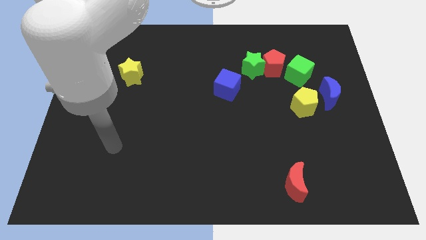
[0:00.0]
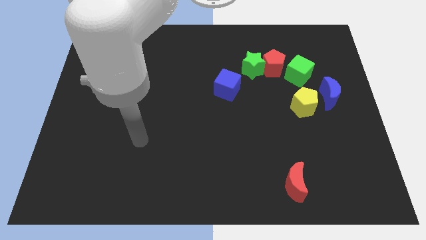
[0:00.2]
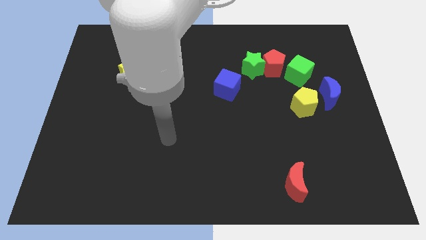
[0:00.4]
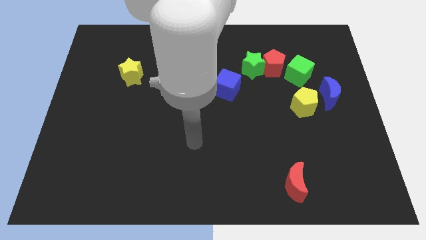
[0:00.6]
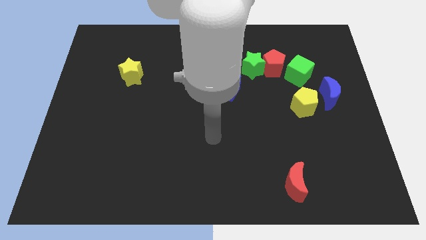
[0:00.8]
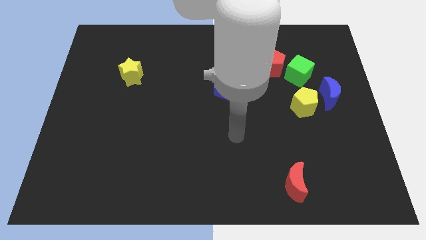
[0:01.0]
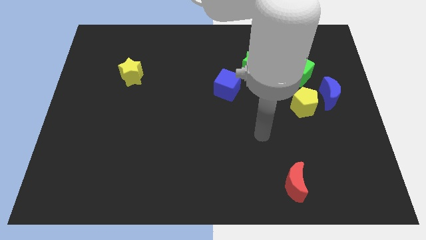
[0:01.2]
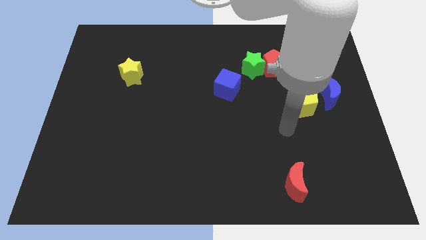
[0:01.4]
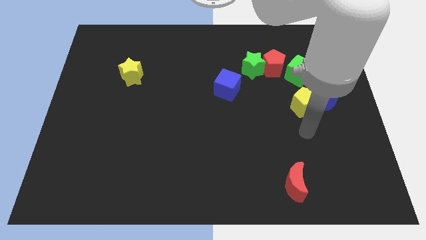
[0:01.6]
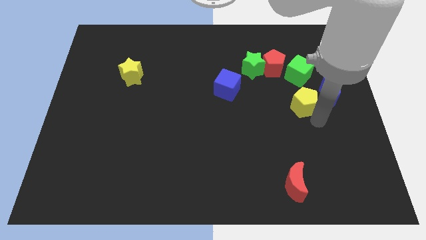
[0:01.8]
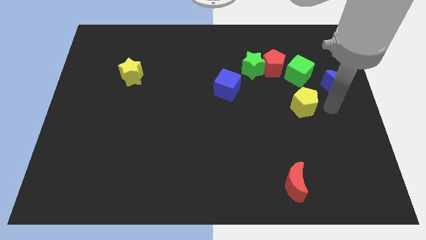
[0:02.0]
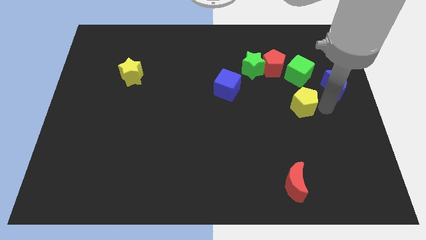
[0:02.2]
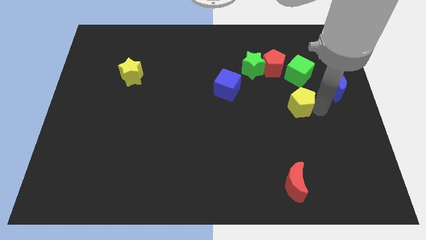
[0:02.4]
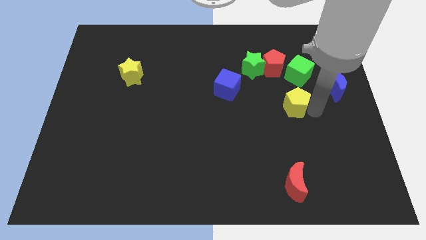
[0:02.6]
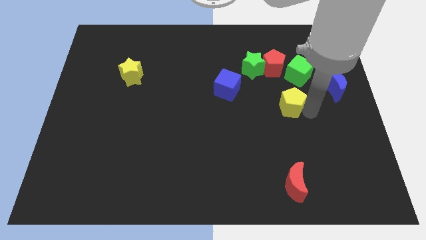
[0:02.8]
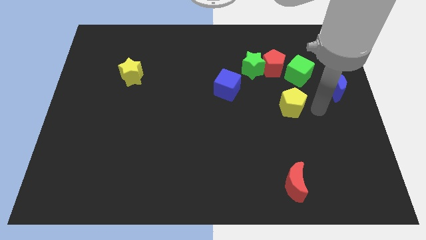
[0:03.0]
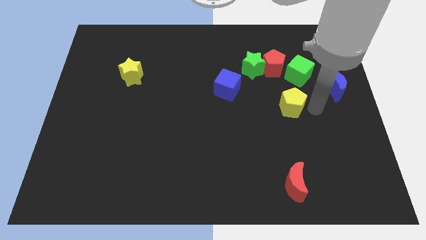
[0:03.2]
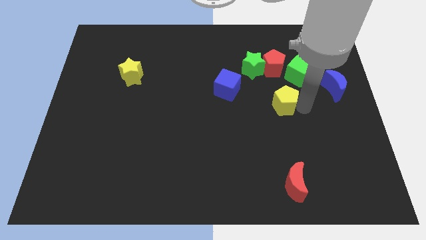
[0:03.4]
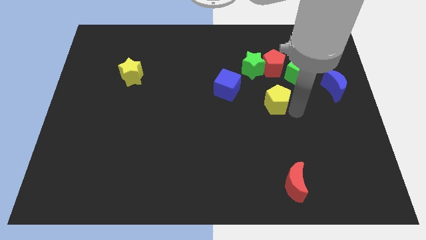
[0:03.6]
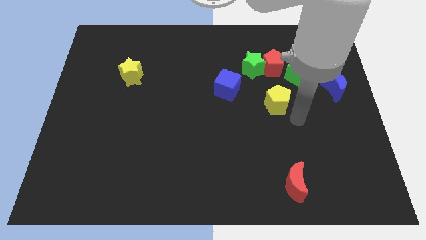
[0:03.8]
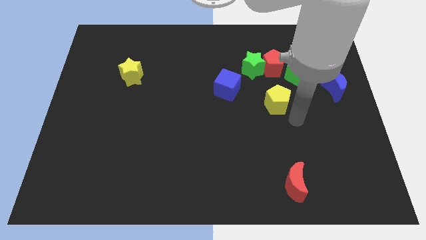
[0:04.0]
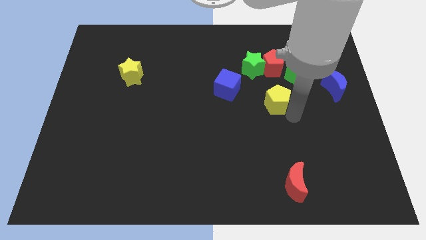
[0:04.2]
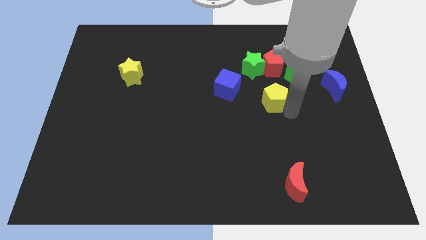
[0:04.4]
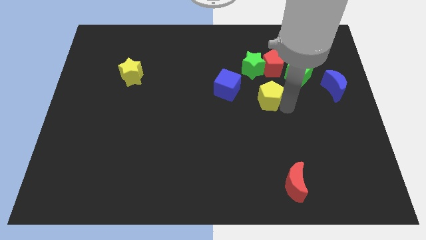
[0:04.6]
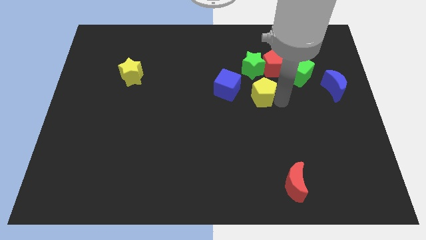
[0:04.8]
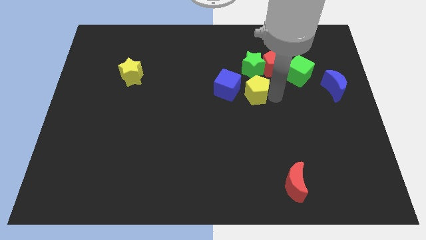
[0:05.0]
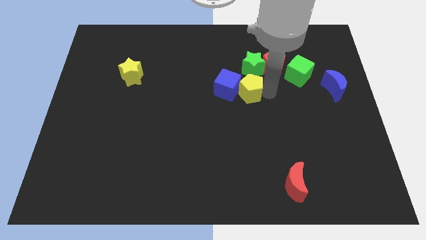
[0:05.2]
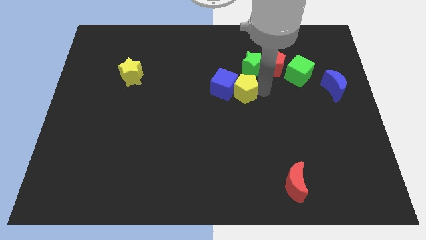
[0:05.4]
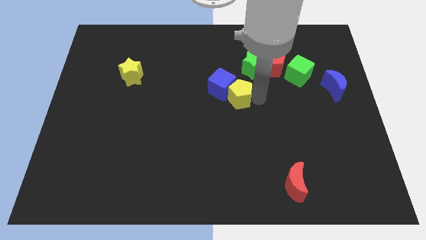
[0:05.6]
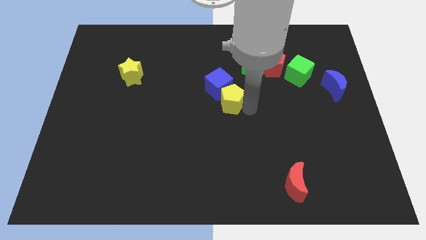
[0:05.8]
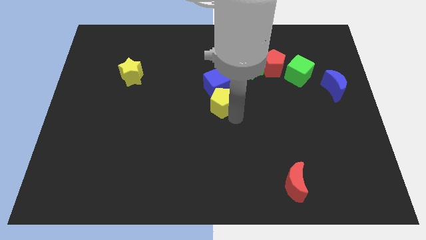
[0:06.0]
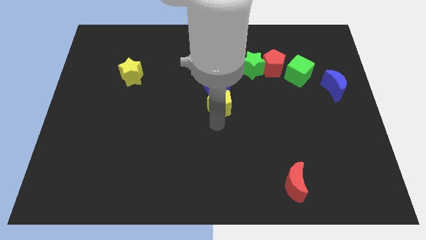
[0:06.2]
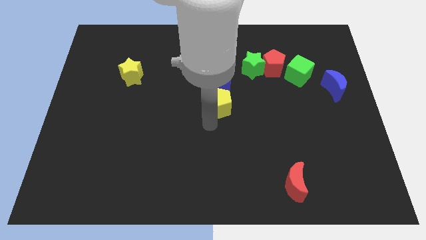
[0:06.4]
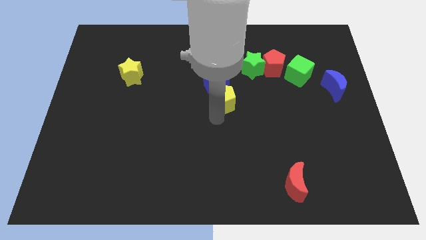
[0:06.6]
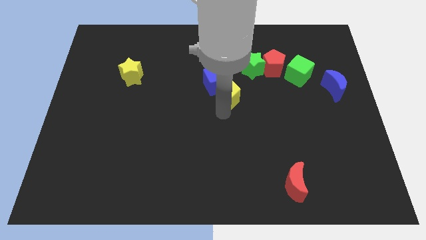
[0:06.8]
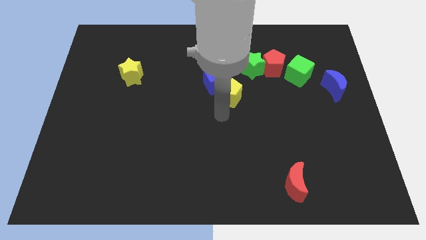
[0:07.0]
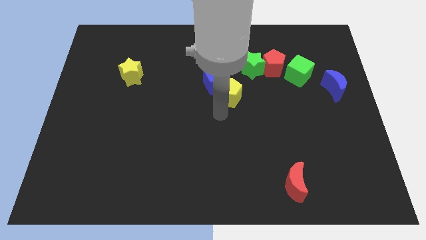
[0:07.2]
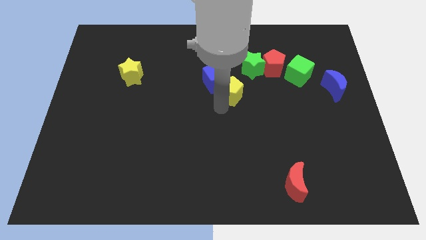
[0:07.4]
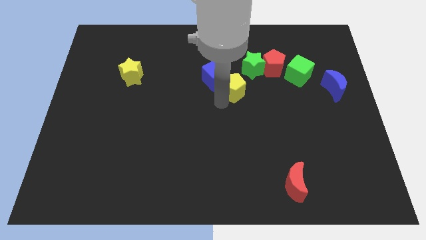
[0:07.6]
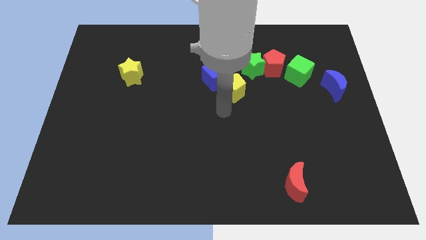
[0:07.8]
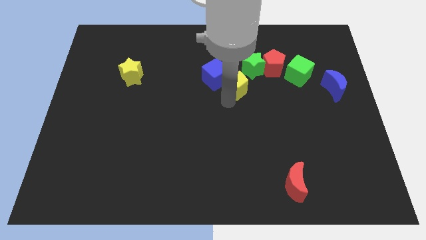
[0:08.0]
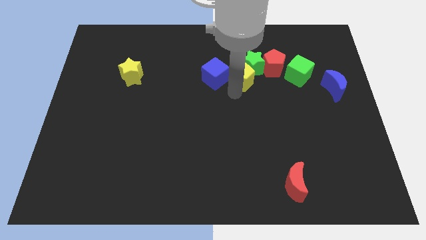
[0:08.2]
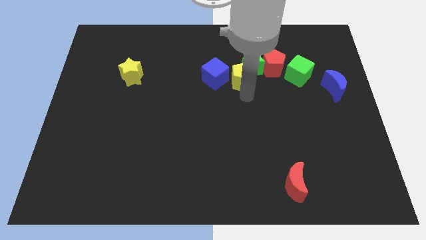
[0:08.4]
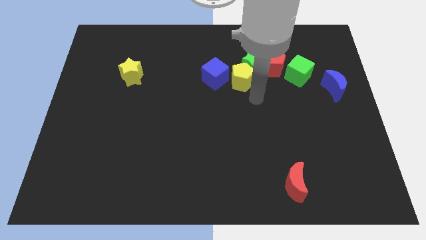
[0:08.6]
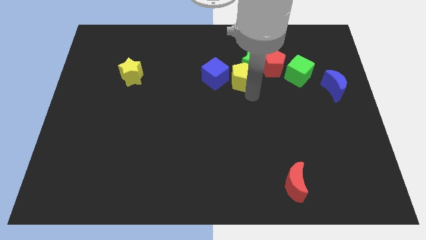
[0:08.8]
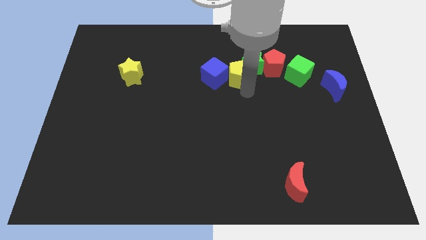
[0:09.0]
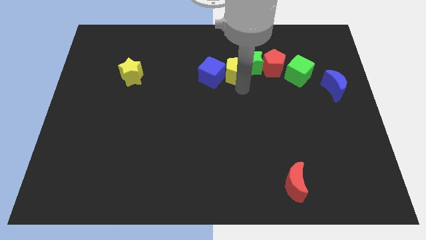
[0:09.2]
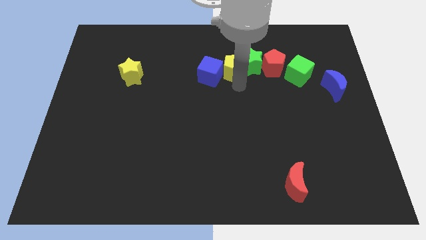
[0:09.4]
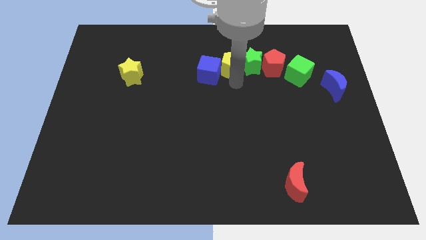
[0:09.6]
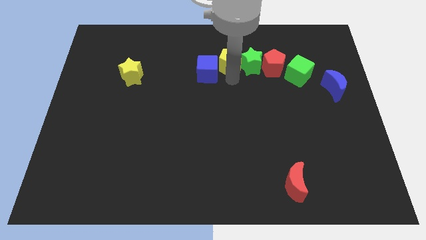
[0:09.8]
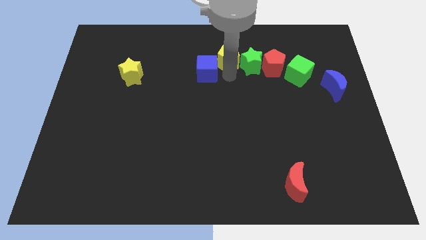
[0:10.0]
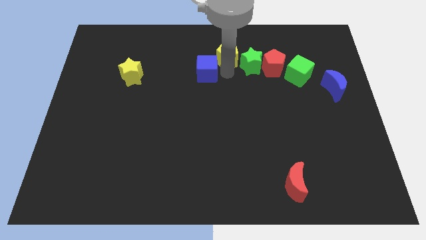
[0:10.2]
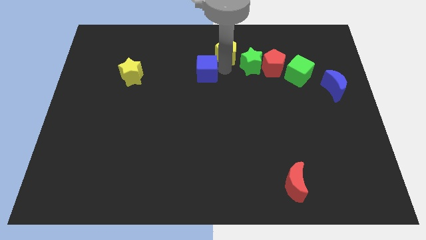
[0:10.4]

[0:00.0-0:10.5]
move the yellow pentagon to the top side
